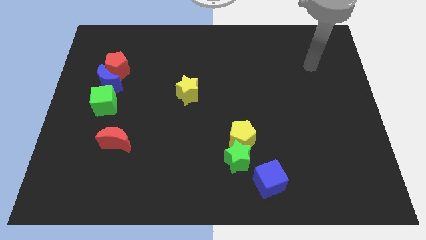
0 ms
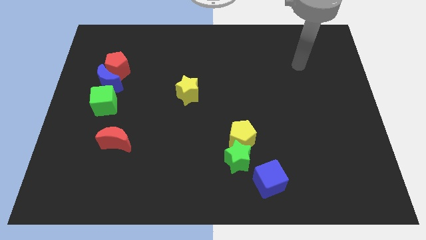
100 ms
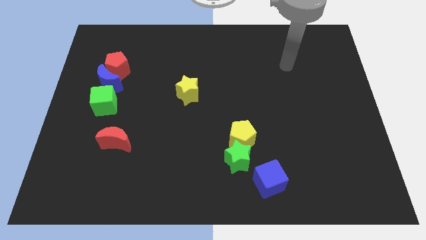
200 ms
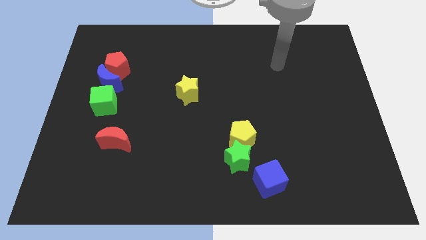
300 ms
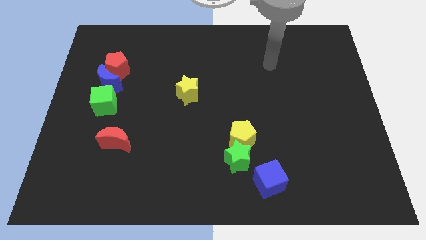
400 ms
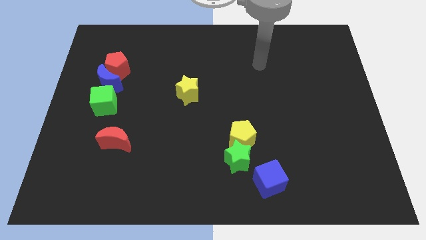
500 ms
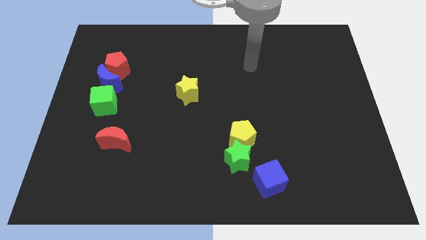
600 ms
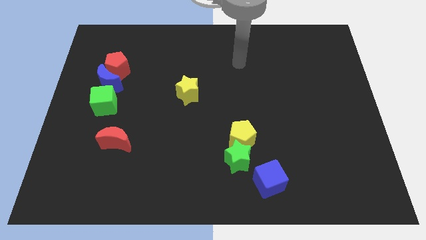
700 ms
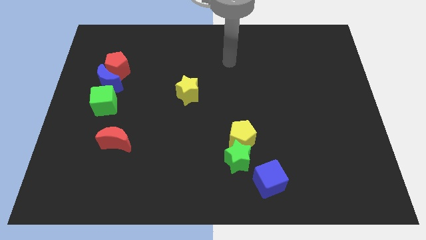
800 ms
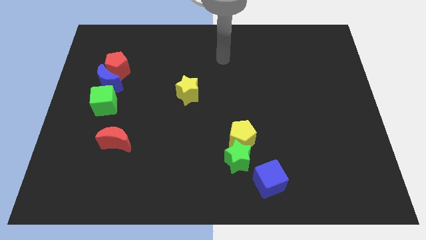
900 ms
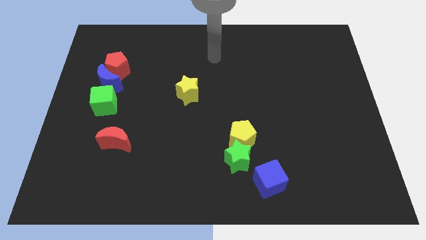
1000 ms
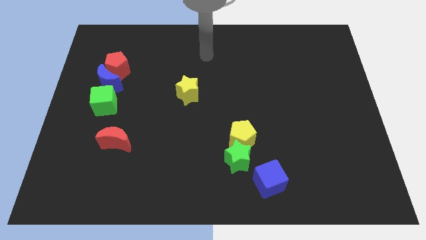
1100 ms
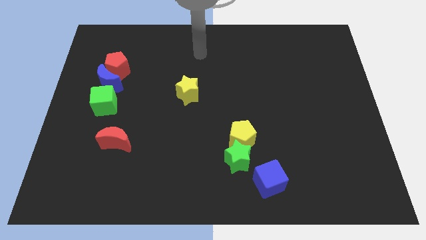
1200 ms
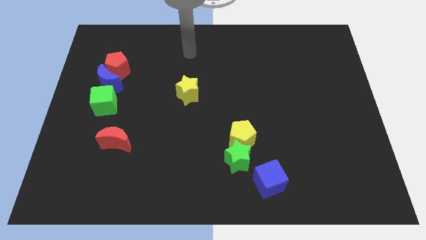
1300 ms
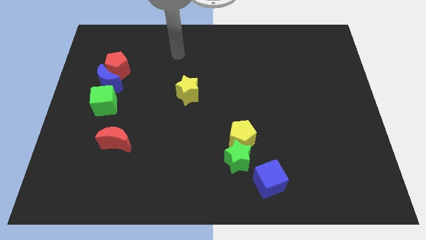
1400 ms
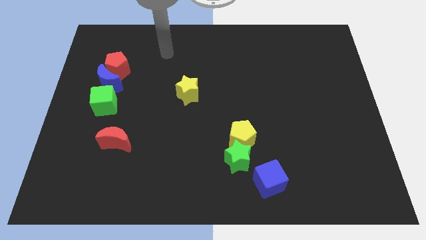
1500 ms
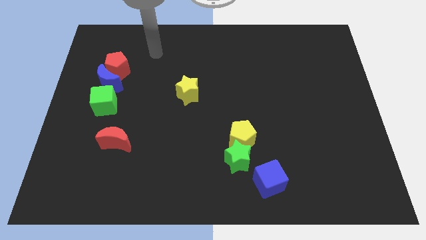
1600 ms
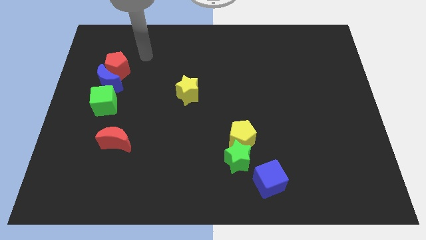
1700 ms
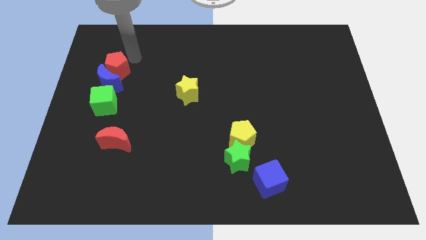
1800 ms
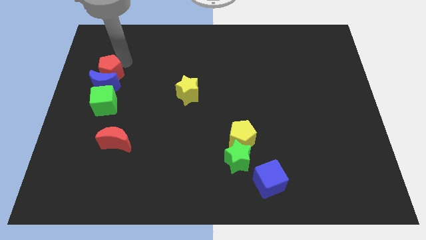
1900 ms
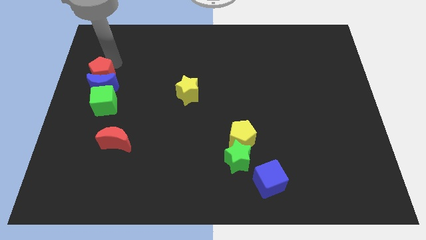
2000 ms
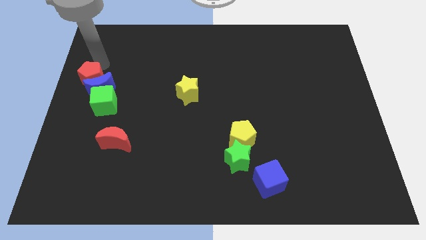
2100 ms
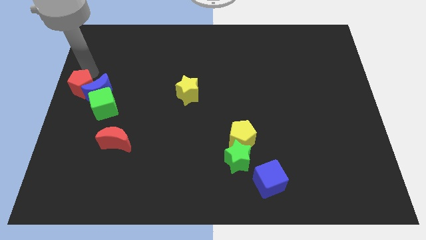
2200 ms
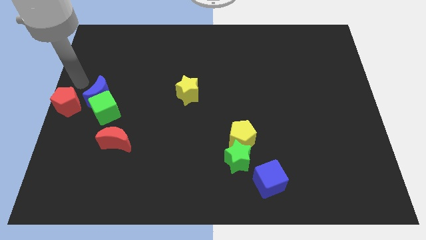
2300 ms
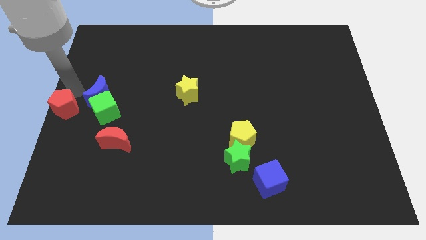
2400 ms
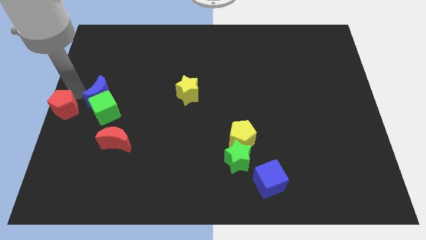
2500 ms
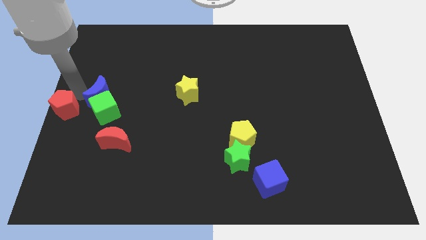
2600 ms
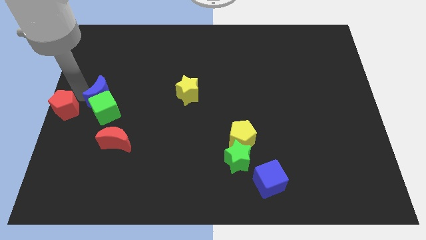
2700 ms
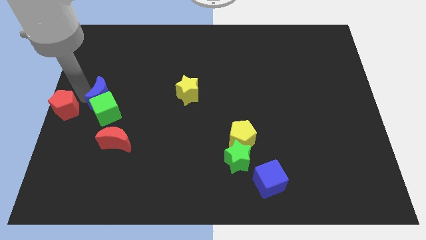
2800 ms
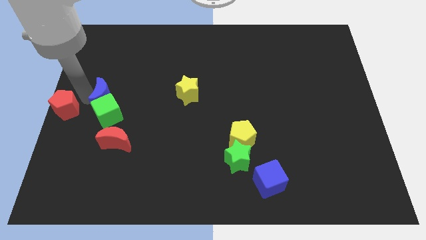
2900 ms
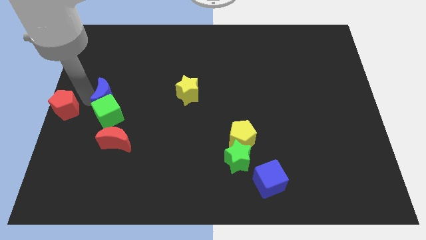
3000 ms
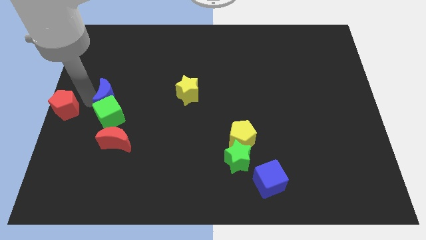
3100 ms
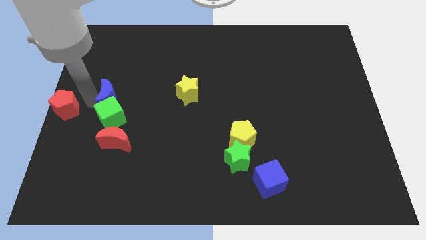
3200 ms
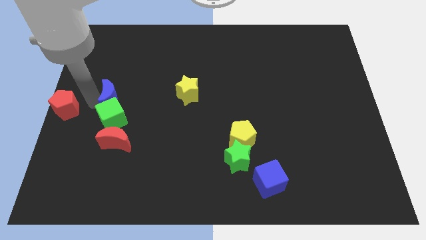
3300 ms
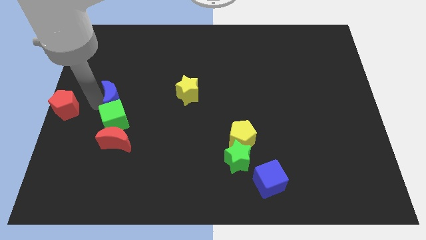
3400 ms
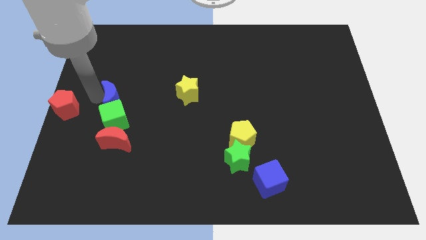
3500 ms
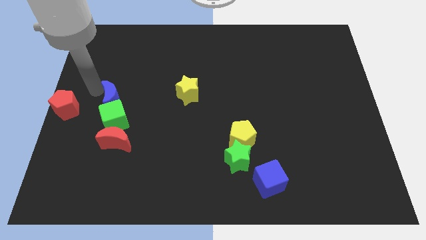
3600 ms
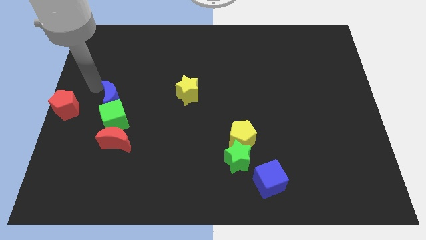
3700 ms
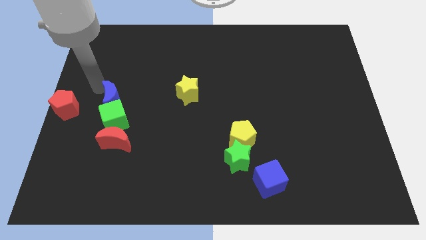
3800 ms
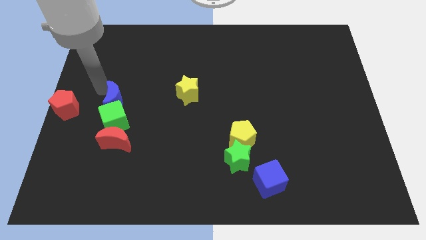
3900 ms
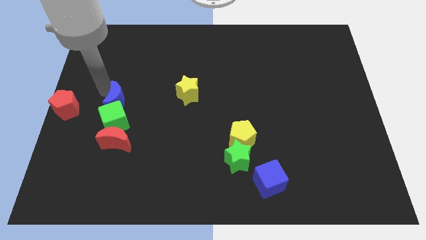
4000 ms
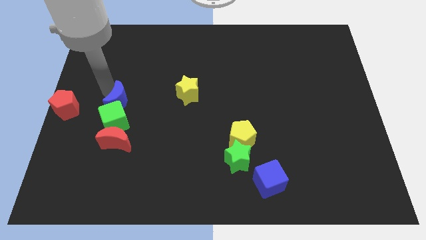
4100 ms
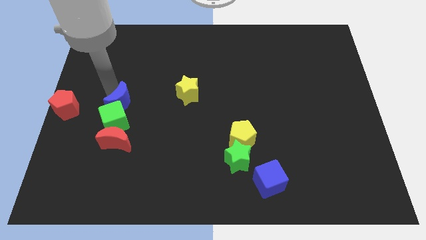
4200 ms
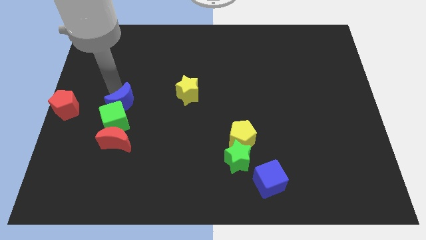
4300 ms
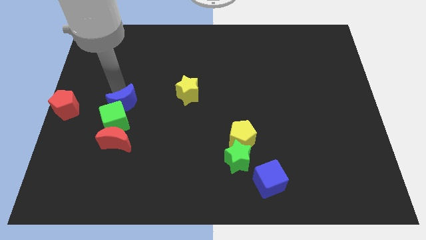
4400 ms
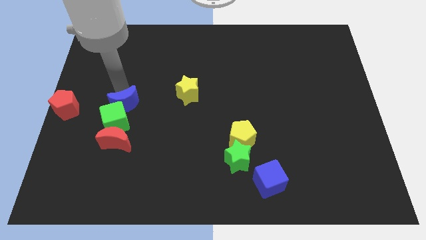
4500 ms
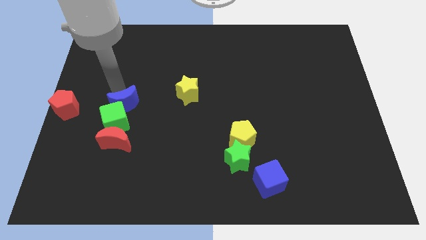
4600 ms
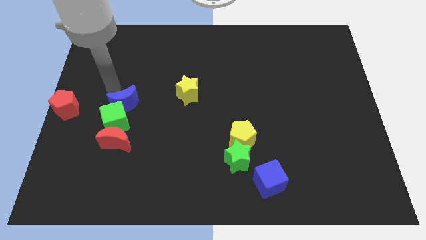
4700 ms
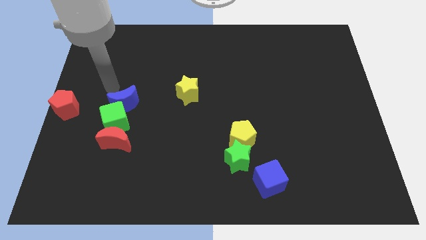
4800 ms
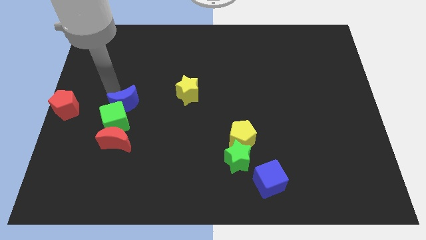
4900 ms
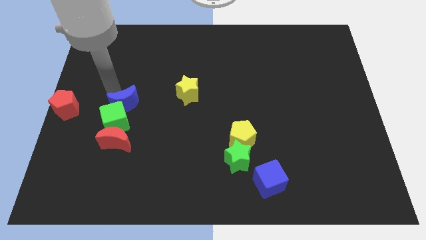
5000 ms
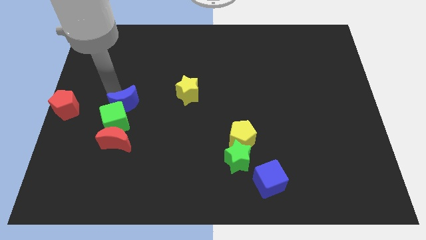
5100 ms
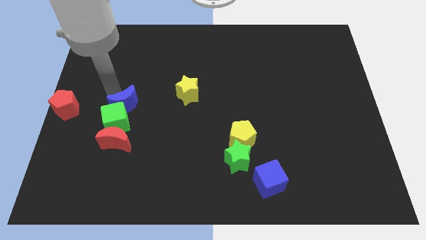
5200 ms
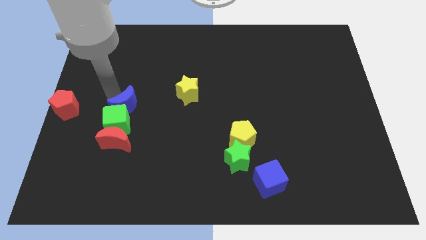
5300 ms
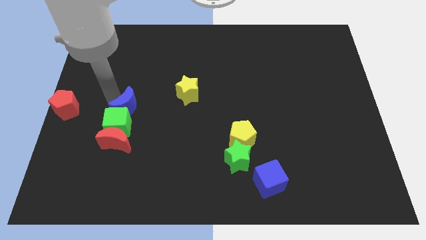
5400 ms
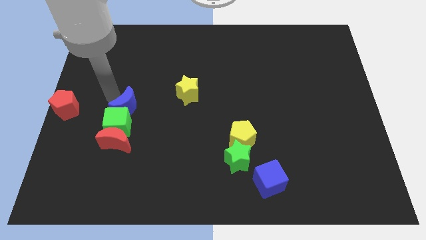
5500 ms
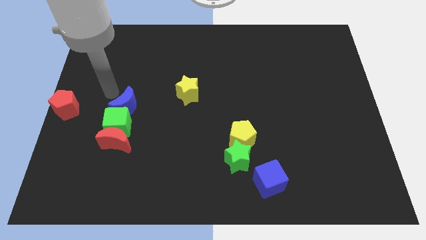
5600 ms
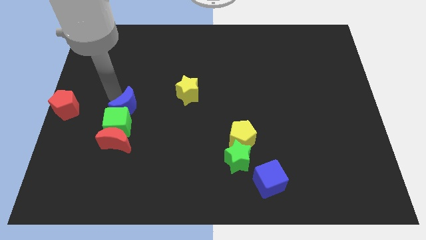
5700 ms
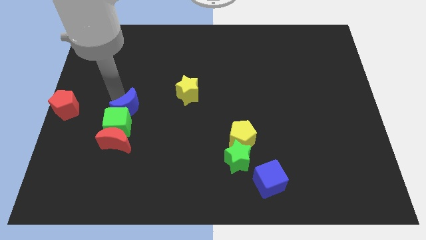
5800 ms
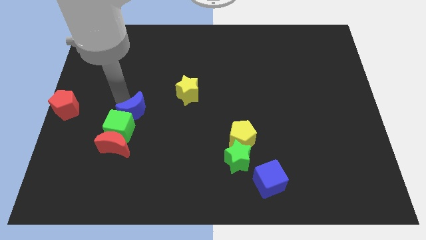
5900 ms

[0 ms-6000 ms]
move the blue moon diagonally up and to the right of the red moon
